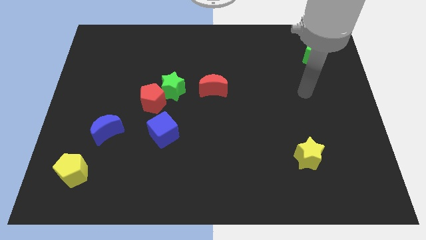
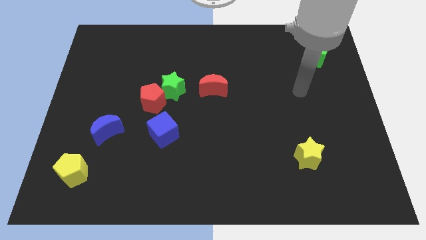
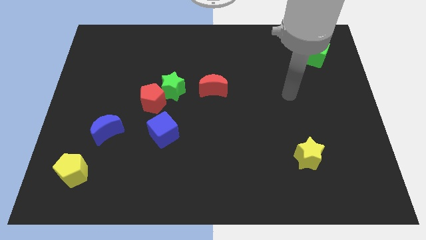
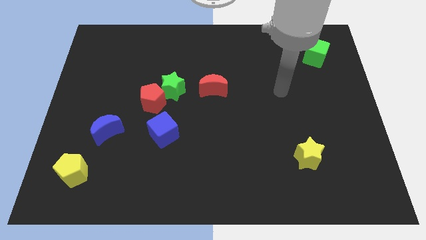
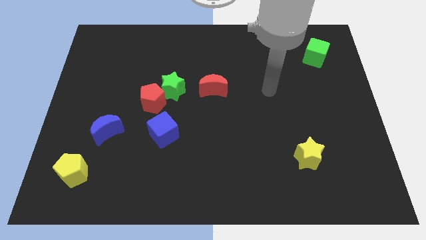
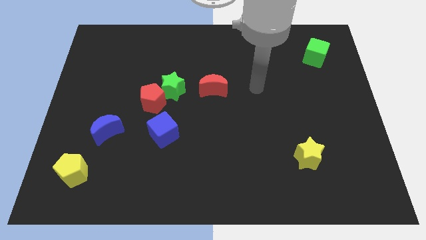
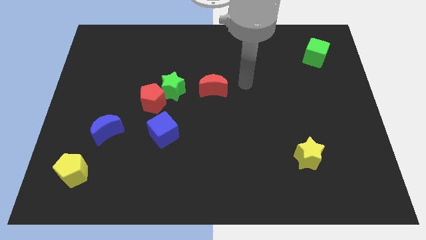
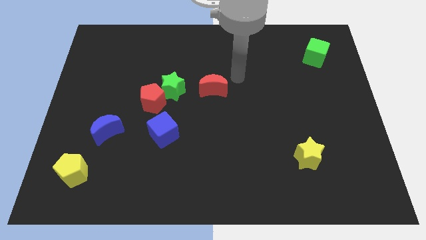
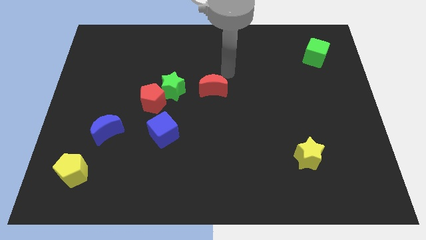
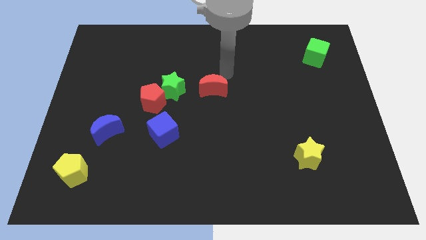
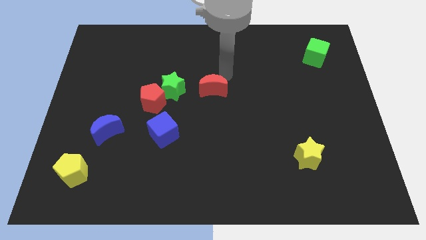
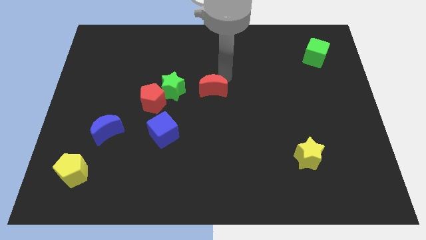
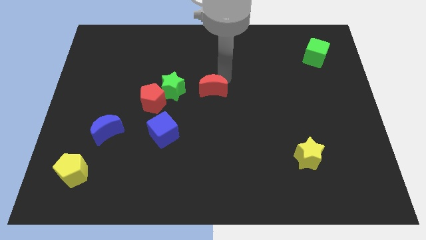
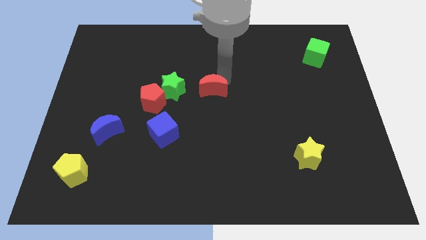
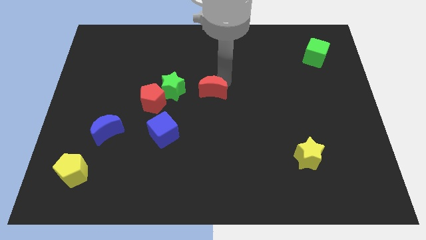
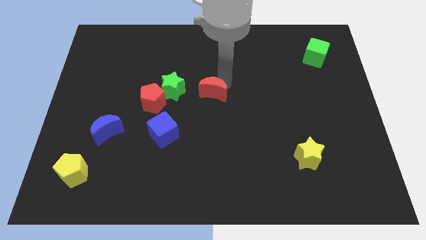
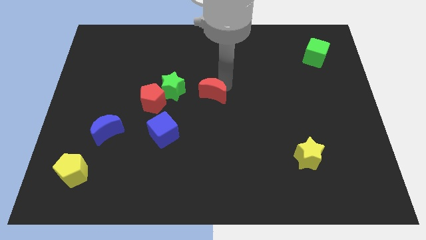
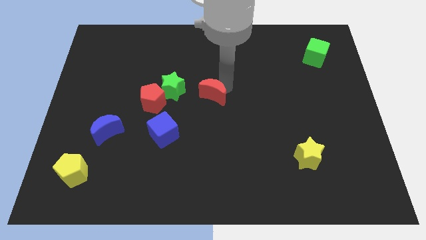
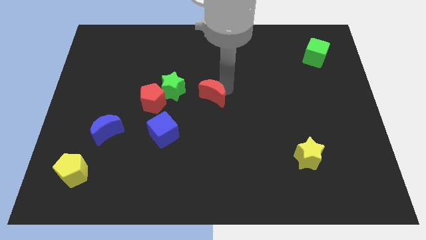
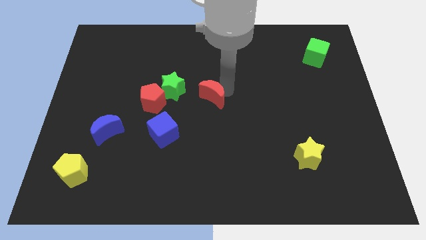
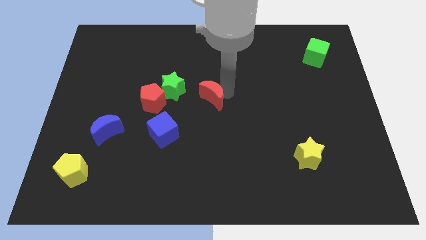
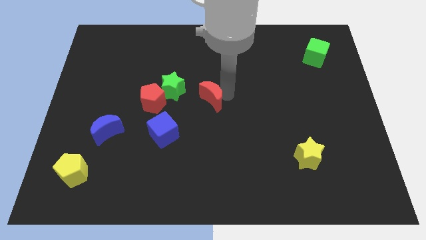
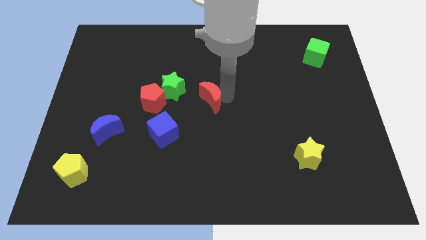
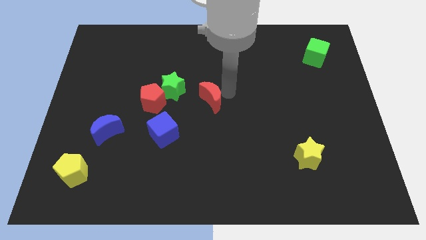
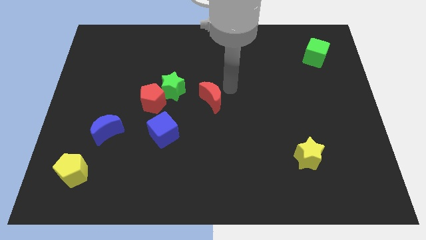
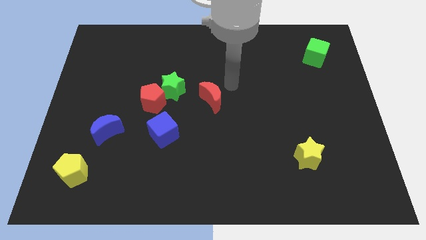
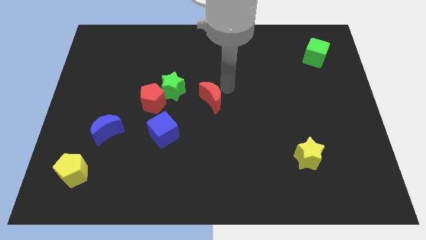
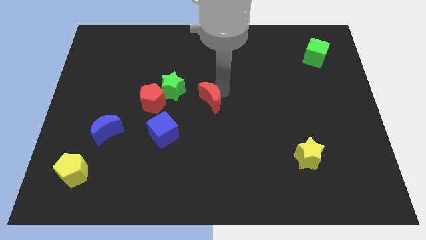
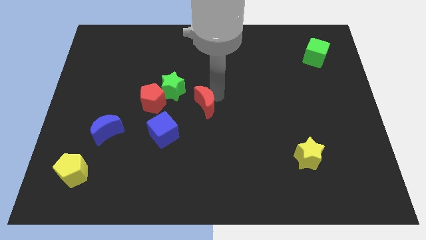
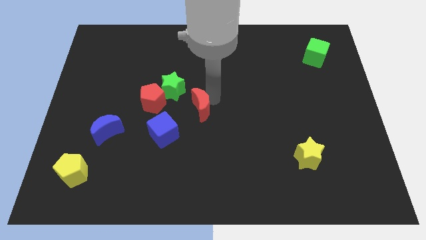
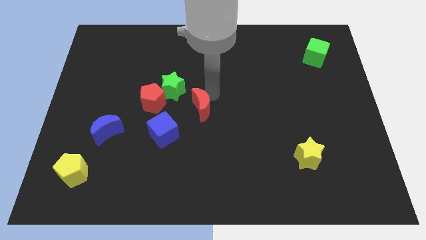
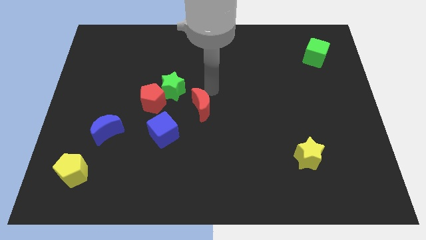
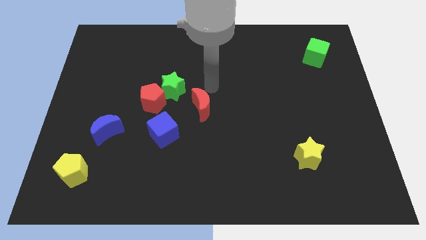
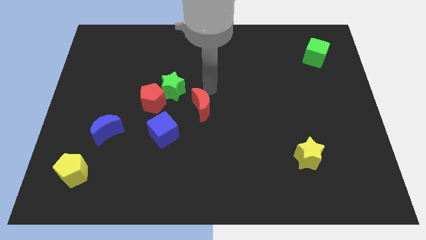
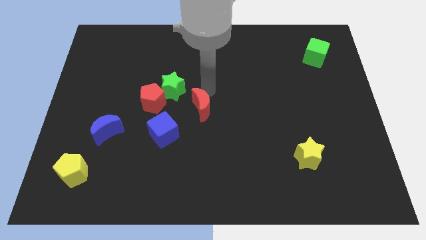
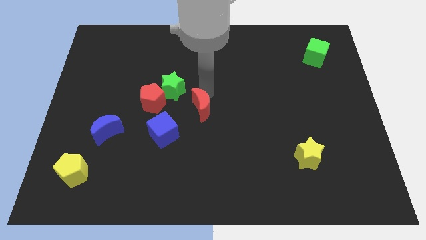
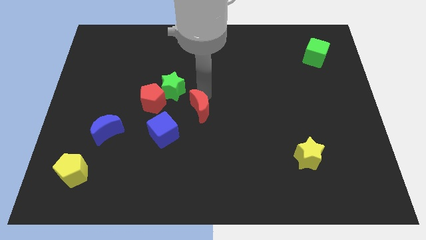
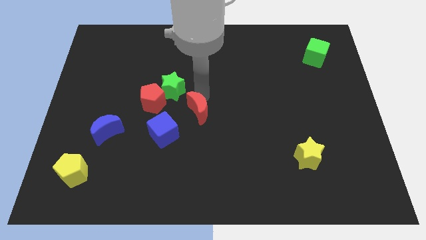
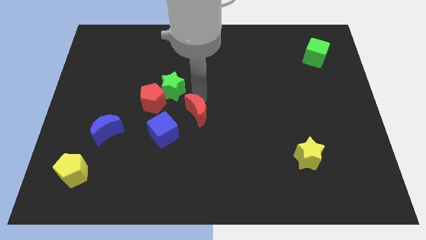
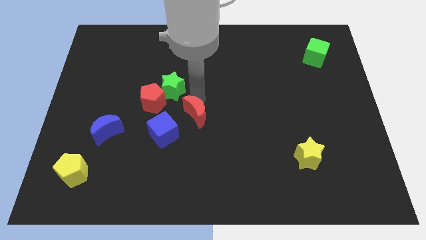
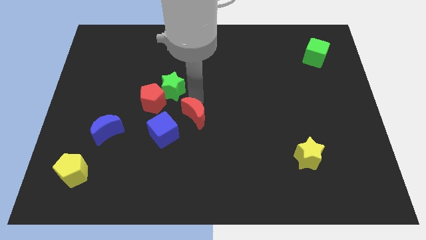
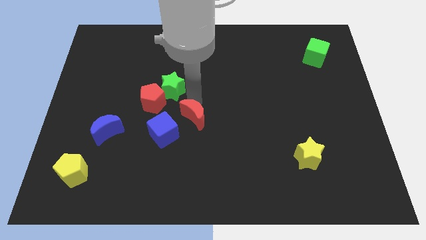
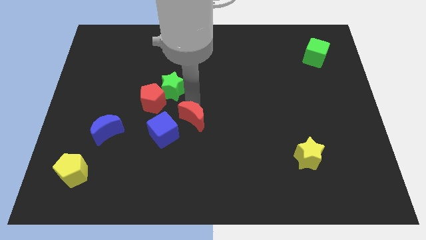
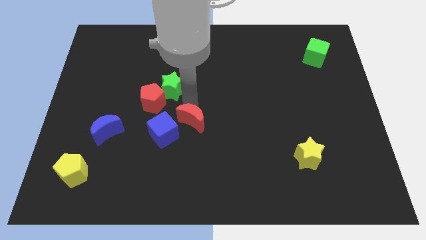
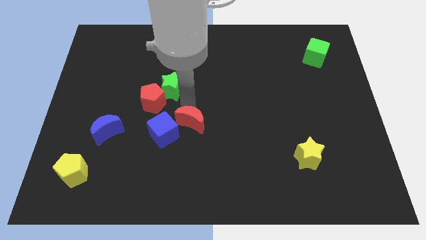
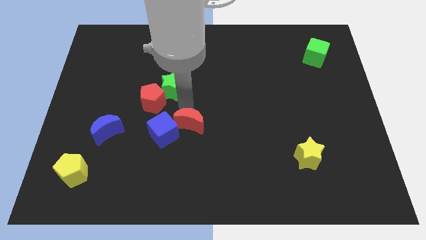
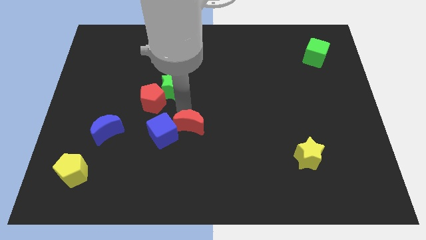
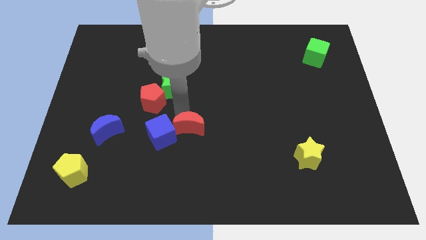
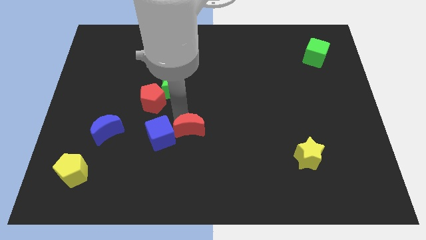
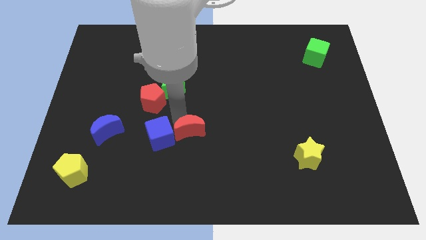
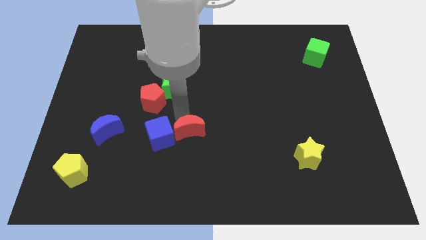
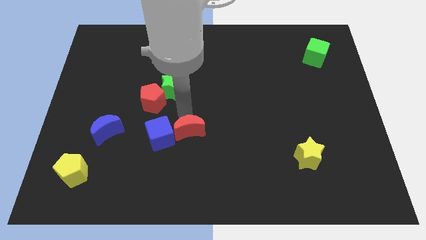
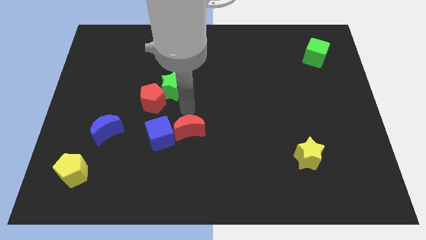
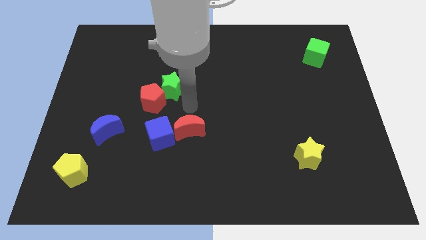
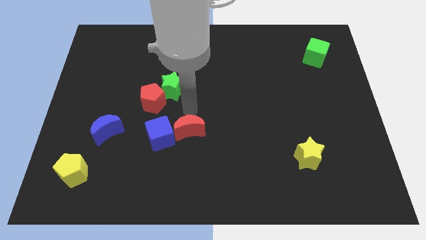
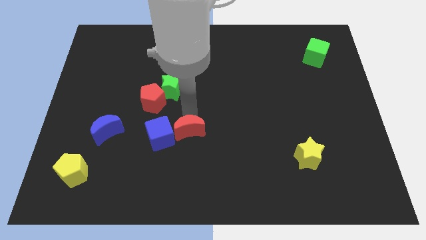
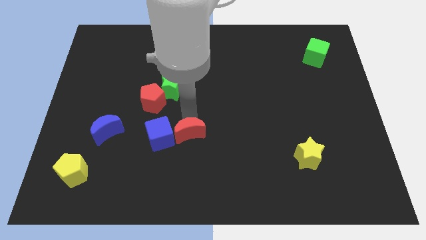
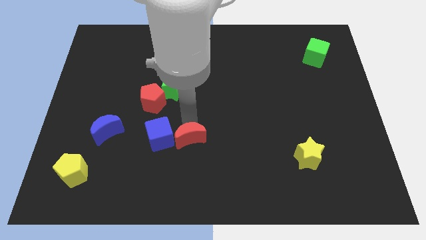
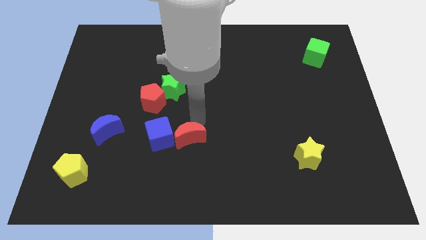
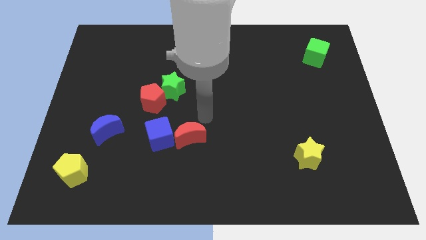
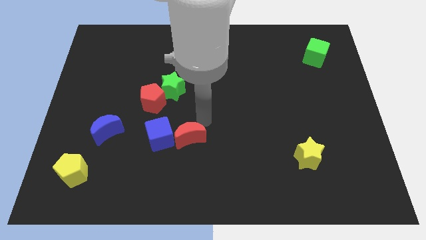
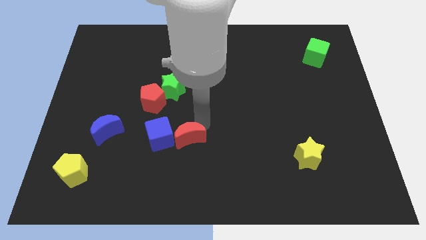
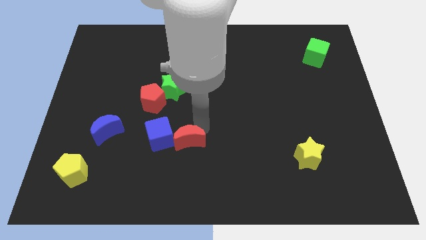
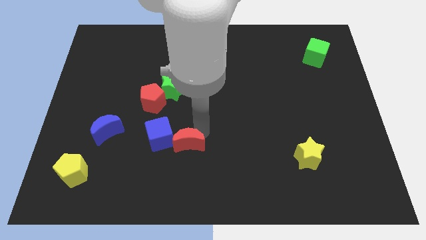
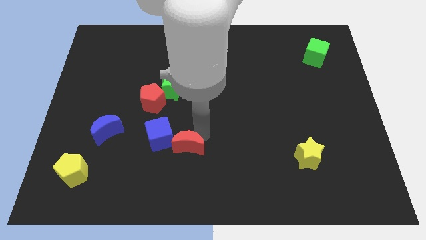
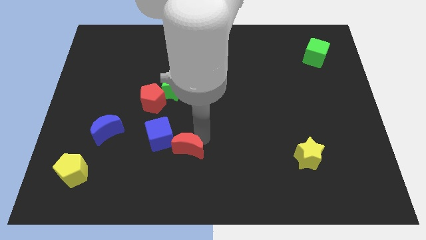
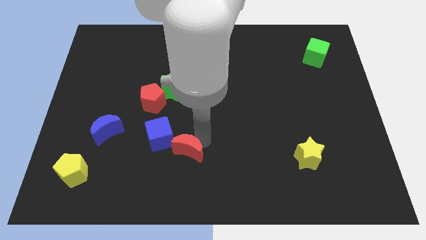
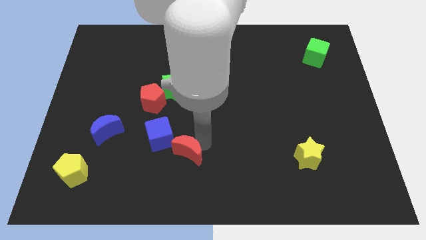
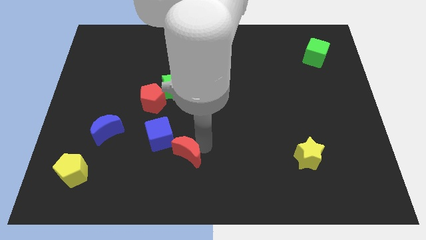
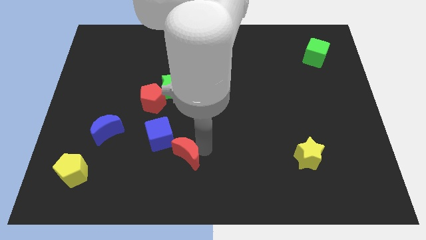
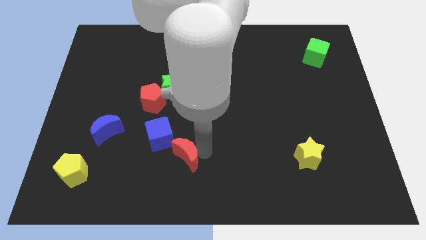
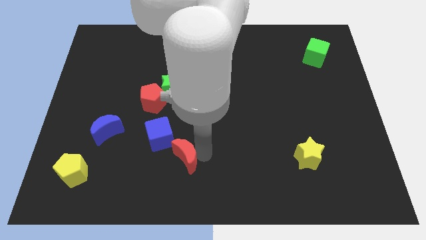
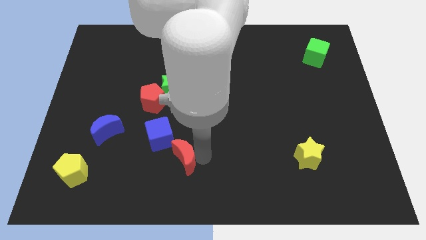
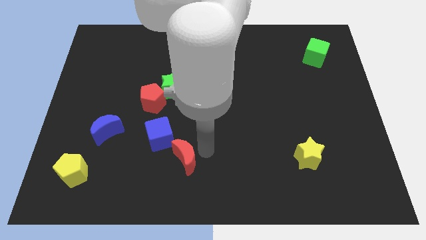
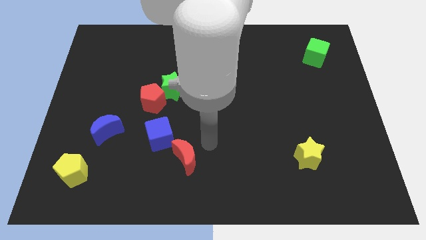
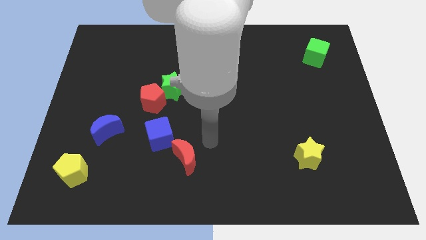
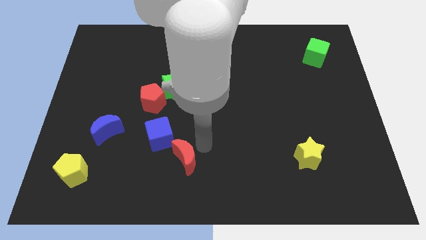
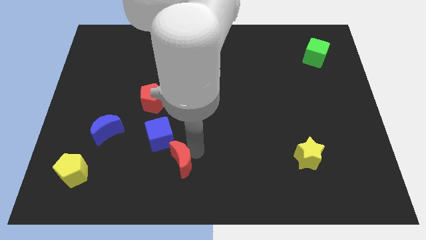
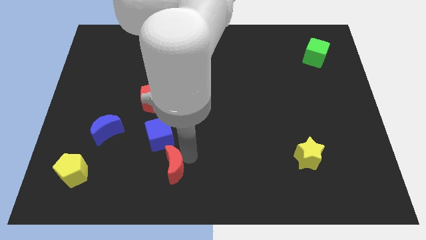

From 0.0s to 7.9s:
push the red moon to the bottom of the blue cube
